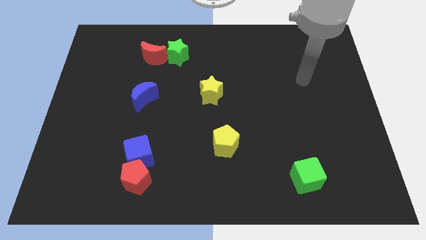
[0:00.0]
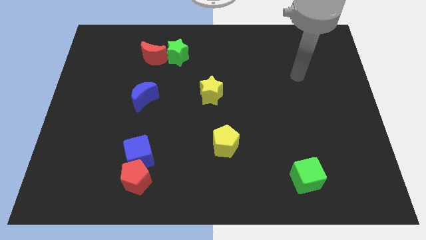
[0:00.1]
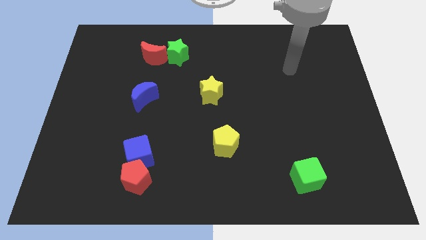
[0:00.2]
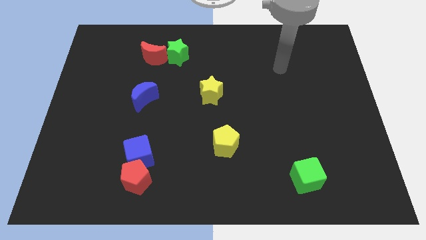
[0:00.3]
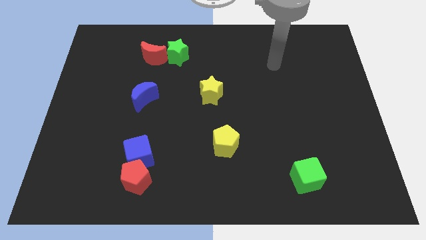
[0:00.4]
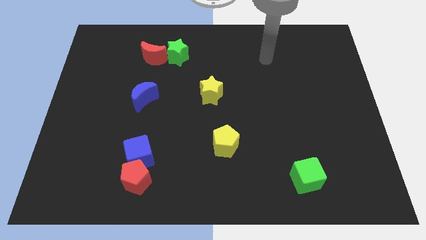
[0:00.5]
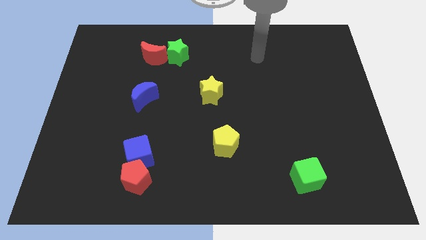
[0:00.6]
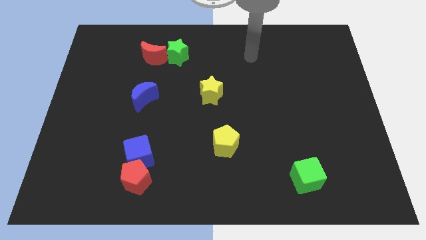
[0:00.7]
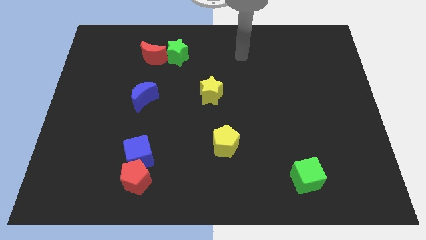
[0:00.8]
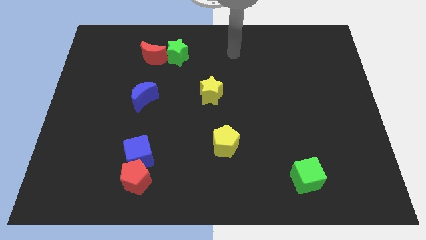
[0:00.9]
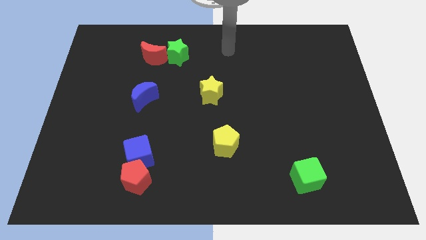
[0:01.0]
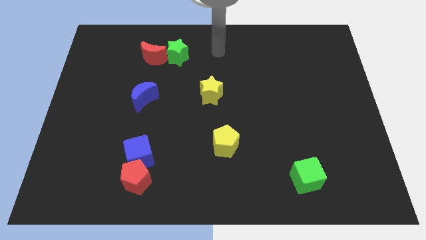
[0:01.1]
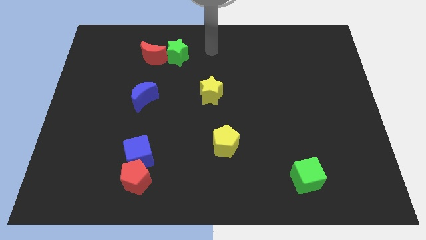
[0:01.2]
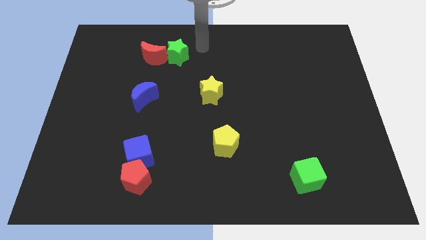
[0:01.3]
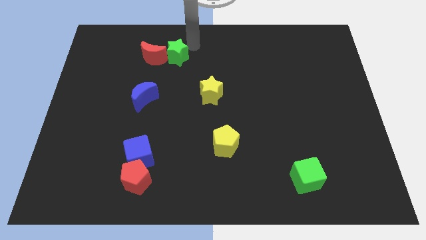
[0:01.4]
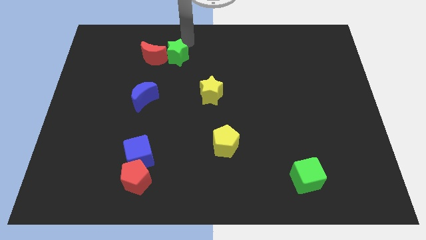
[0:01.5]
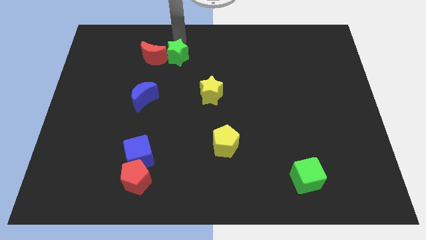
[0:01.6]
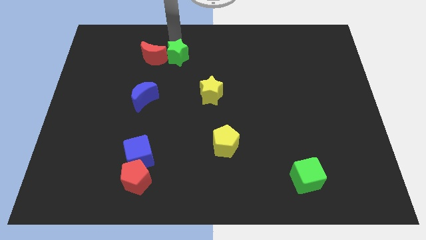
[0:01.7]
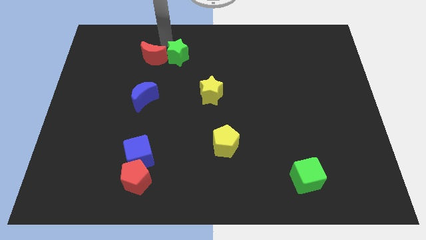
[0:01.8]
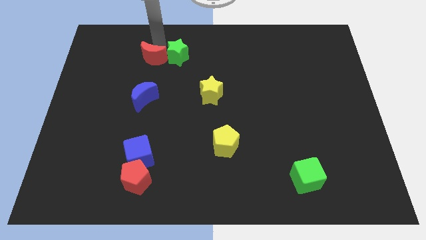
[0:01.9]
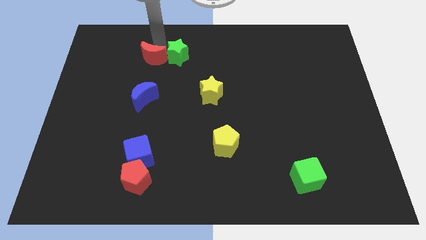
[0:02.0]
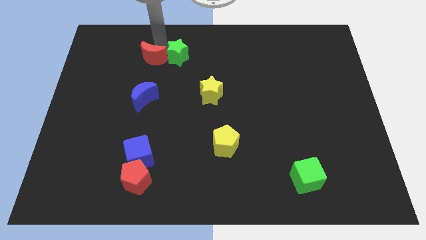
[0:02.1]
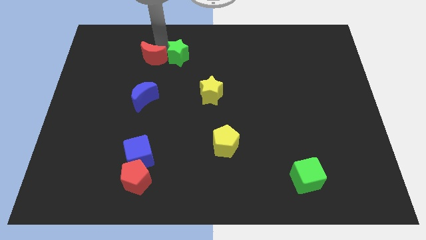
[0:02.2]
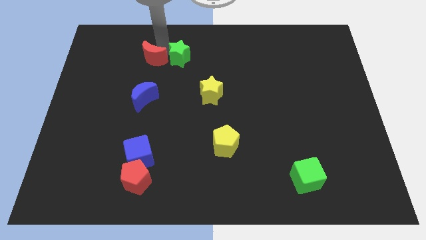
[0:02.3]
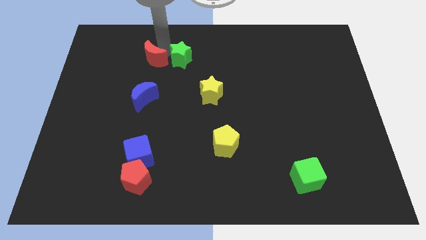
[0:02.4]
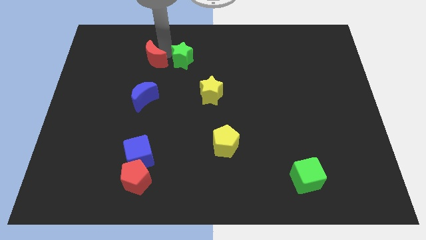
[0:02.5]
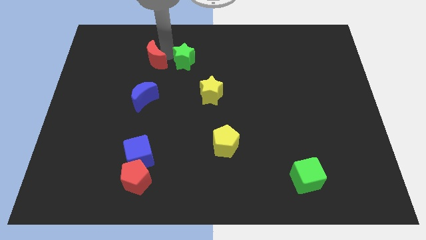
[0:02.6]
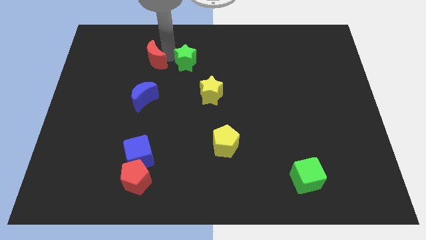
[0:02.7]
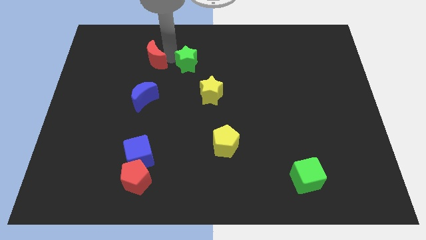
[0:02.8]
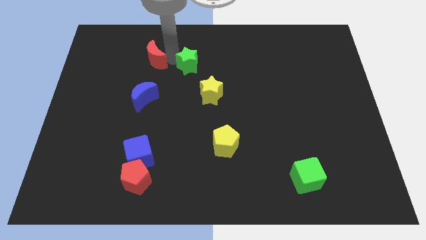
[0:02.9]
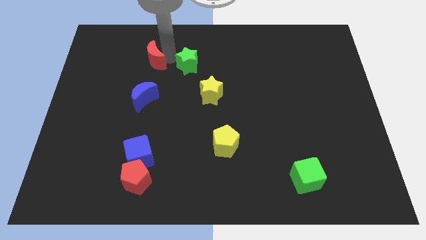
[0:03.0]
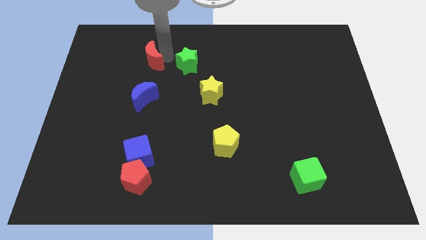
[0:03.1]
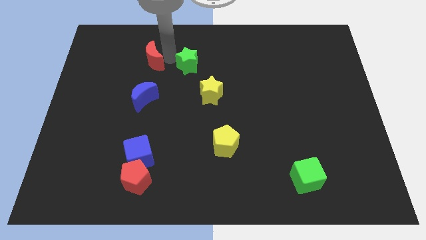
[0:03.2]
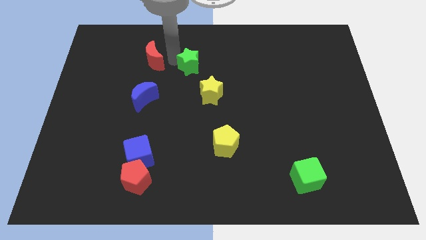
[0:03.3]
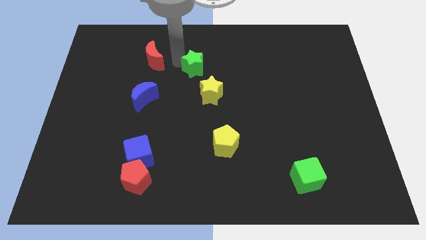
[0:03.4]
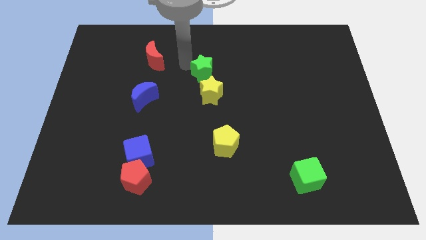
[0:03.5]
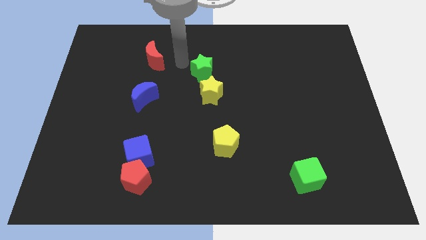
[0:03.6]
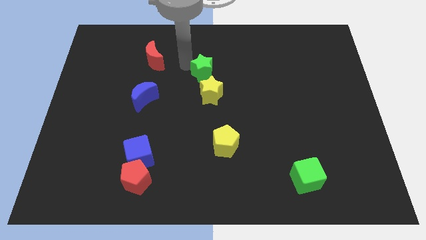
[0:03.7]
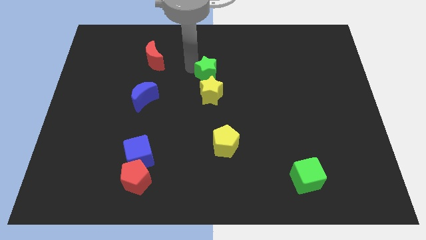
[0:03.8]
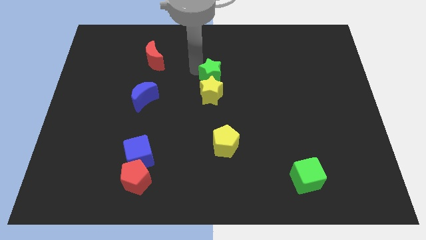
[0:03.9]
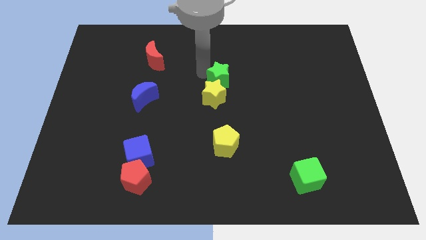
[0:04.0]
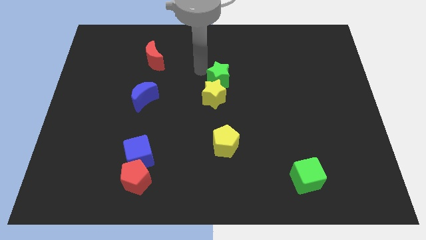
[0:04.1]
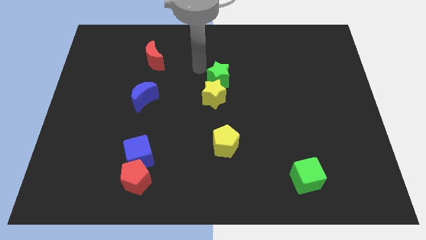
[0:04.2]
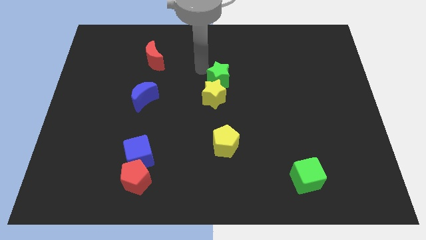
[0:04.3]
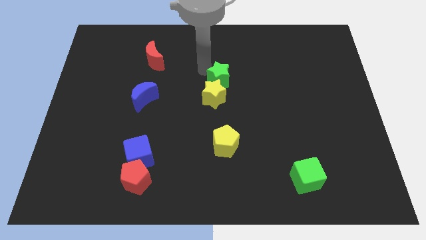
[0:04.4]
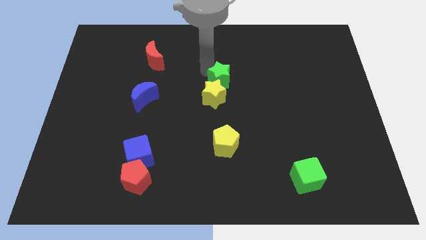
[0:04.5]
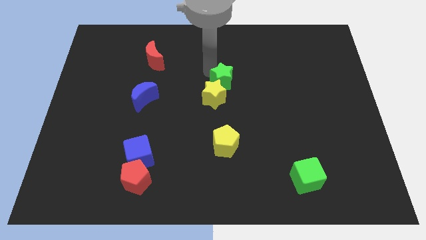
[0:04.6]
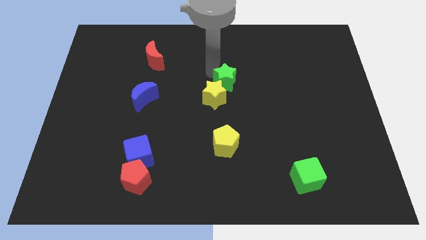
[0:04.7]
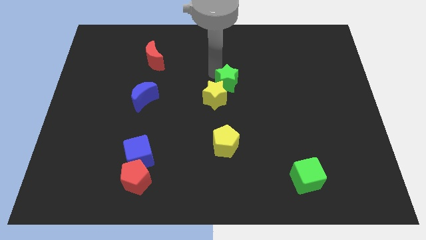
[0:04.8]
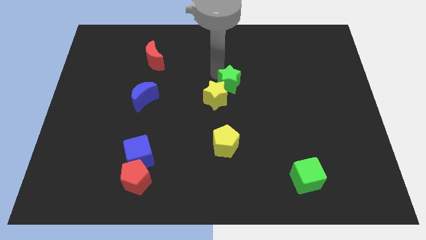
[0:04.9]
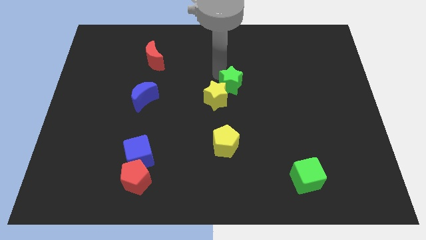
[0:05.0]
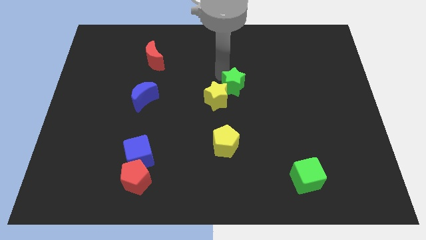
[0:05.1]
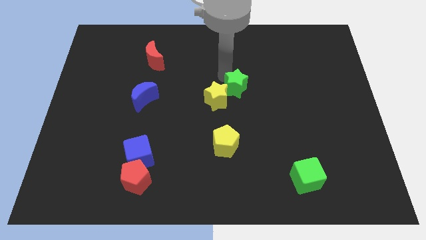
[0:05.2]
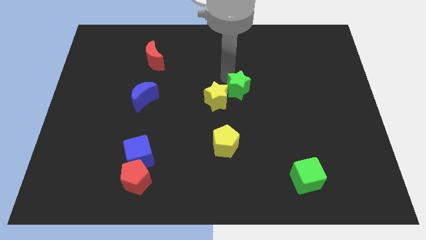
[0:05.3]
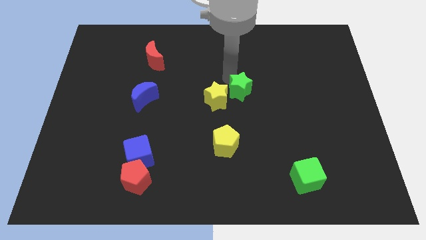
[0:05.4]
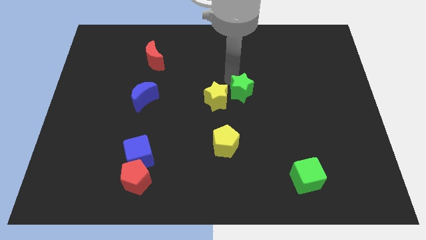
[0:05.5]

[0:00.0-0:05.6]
move the green star downwards and to the right

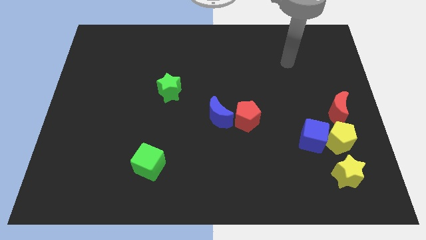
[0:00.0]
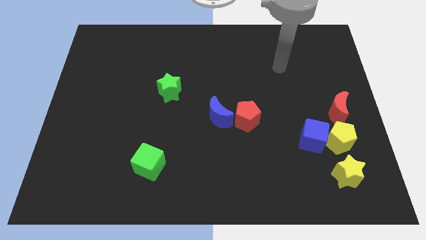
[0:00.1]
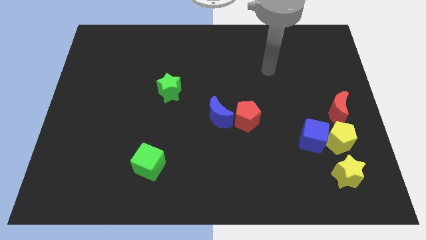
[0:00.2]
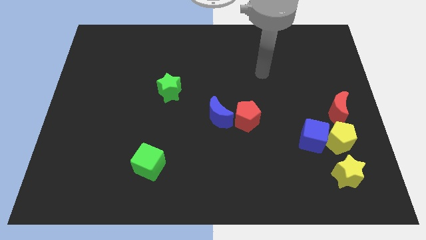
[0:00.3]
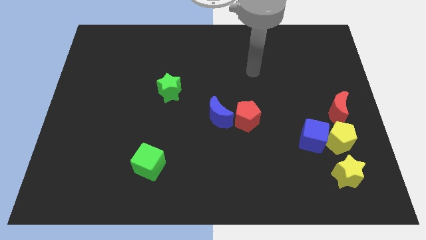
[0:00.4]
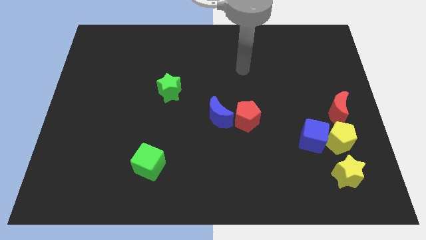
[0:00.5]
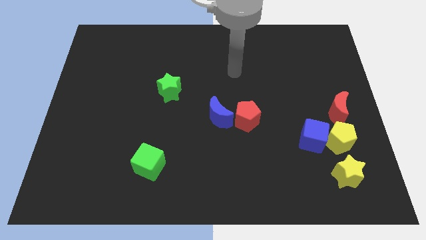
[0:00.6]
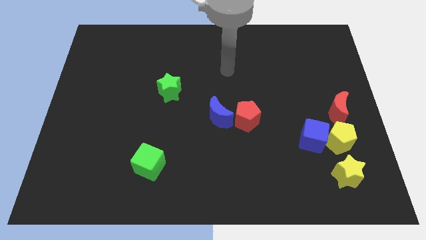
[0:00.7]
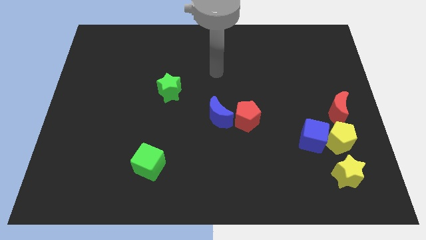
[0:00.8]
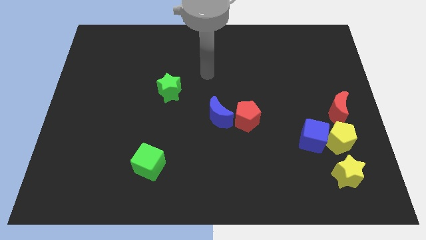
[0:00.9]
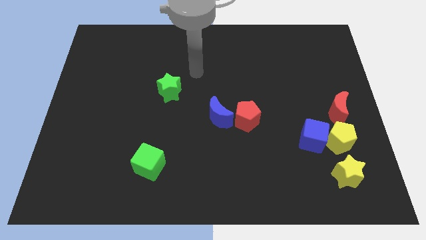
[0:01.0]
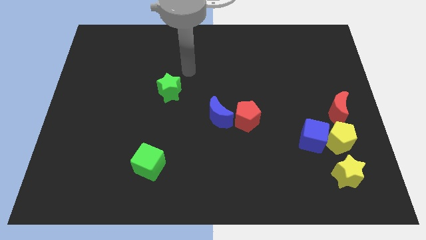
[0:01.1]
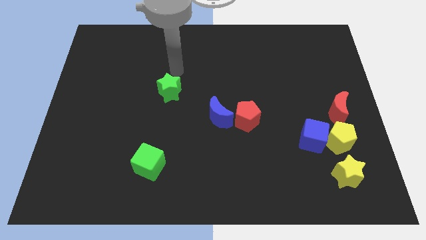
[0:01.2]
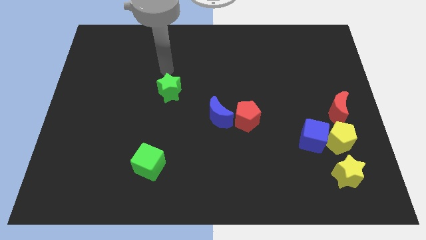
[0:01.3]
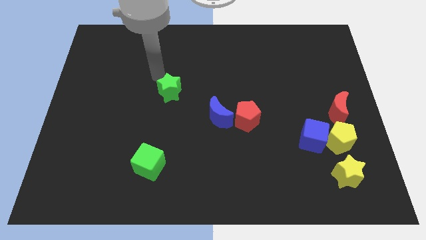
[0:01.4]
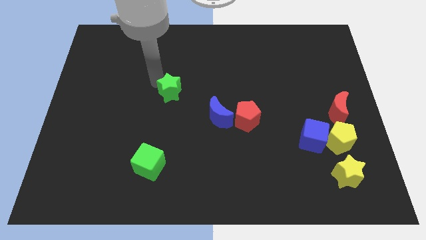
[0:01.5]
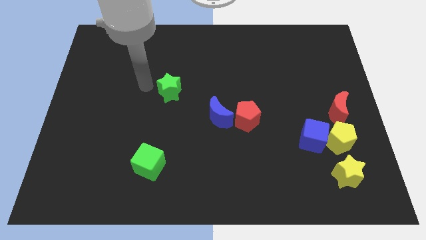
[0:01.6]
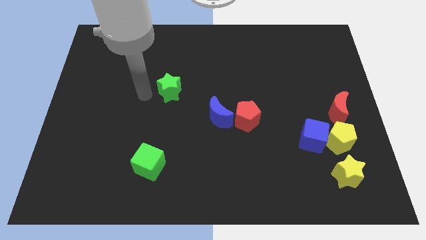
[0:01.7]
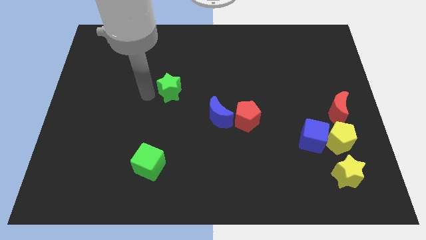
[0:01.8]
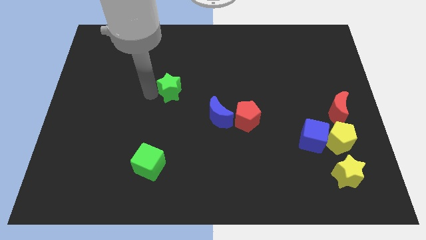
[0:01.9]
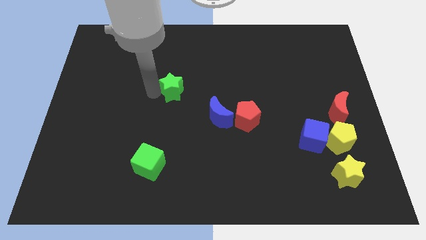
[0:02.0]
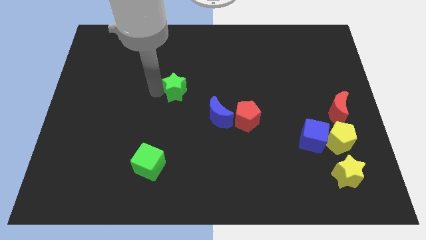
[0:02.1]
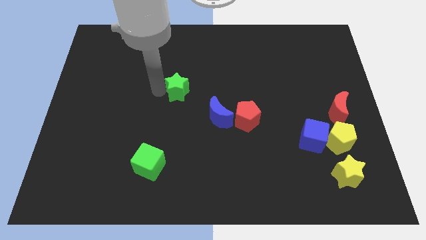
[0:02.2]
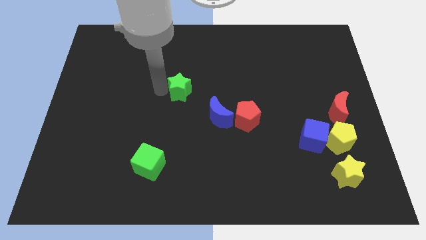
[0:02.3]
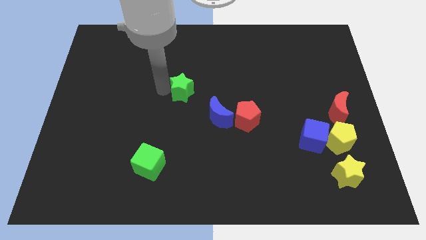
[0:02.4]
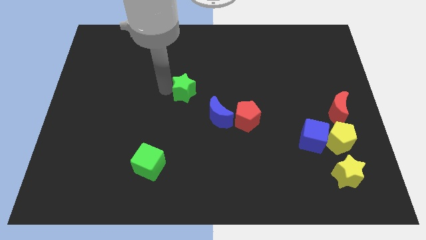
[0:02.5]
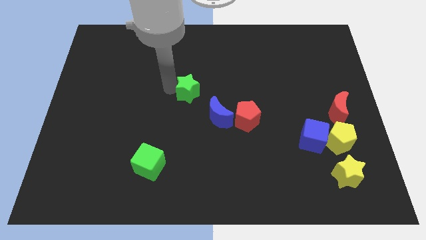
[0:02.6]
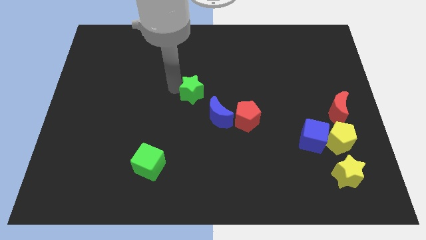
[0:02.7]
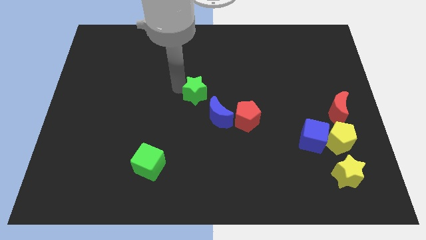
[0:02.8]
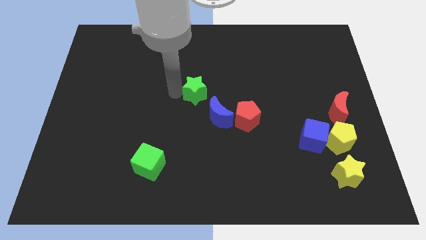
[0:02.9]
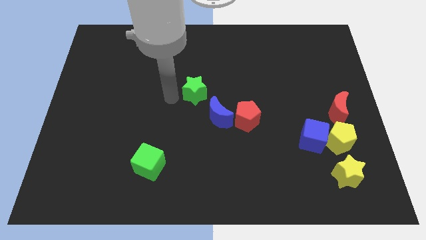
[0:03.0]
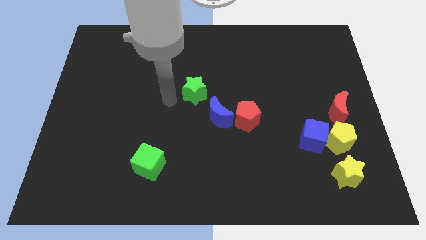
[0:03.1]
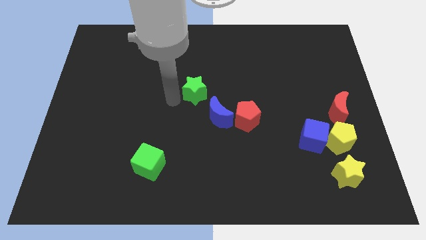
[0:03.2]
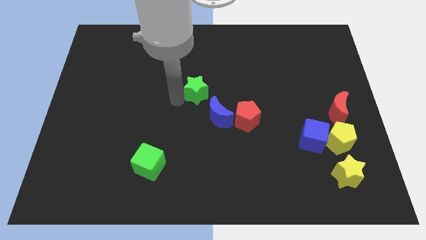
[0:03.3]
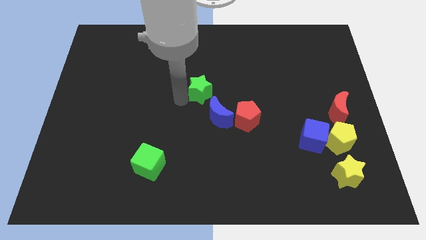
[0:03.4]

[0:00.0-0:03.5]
push the green star to the right a bit
